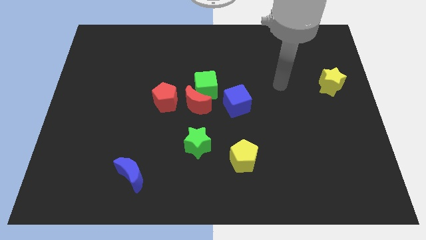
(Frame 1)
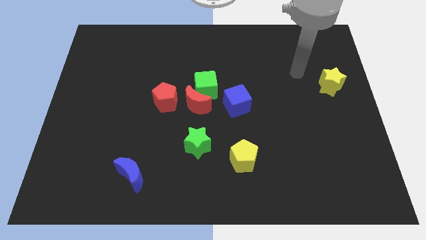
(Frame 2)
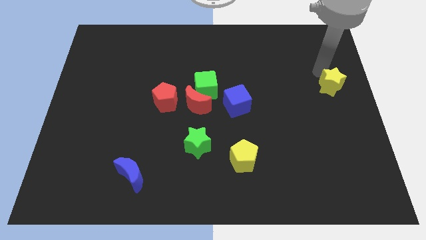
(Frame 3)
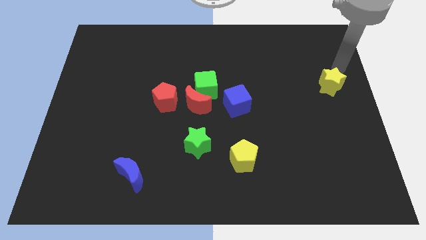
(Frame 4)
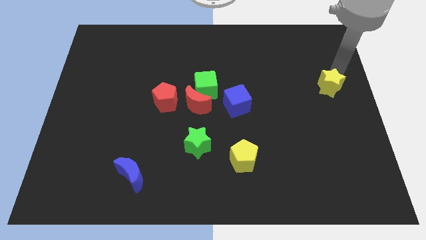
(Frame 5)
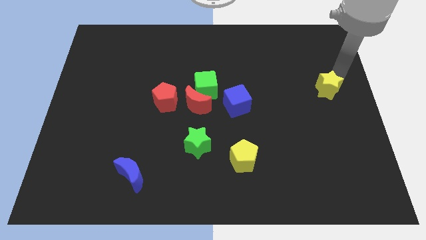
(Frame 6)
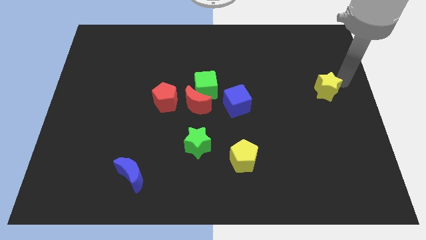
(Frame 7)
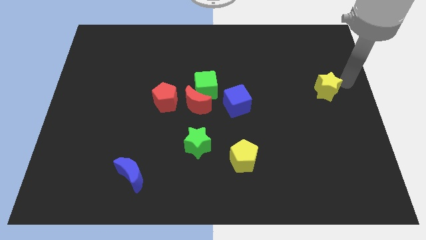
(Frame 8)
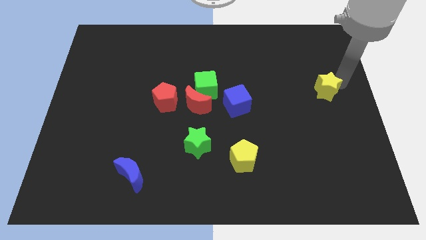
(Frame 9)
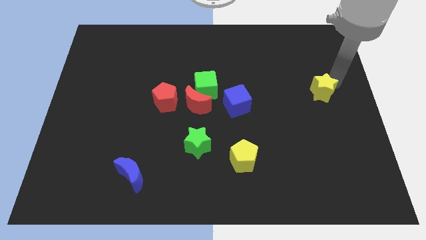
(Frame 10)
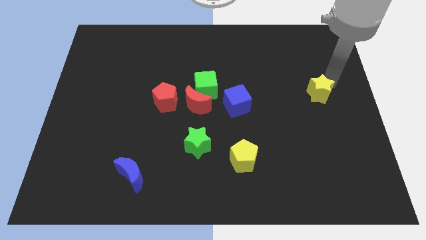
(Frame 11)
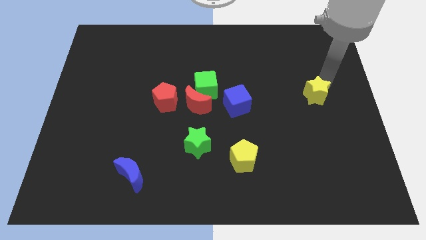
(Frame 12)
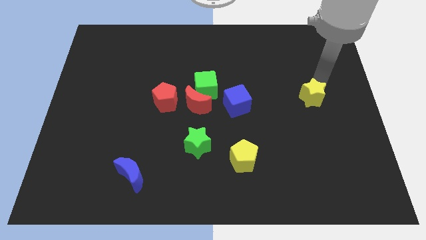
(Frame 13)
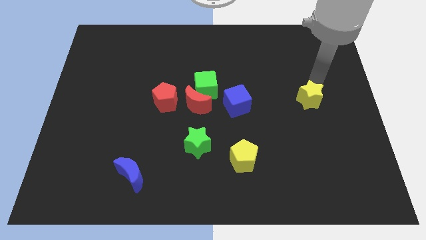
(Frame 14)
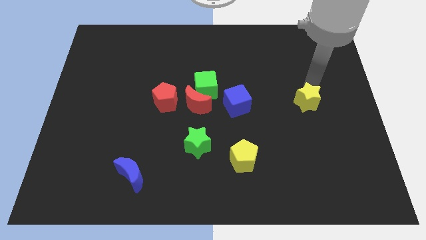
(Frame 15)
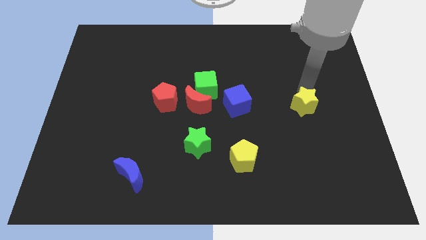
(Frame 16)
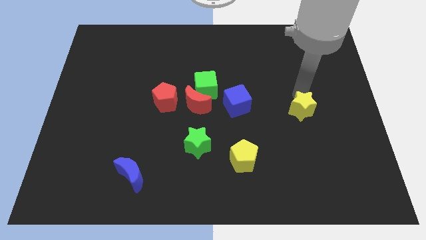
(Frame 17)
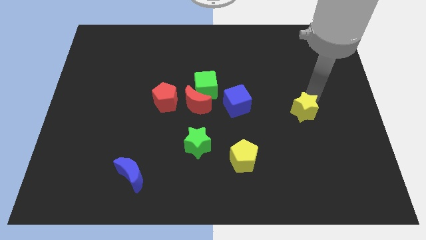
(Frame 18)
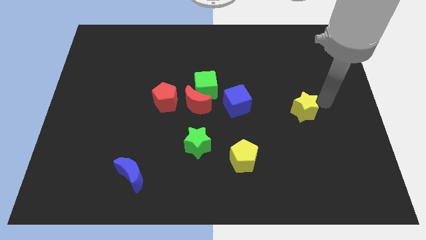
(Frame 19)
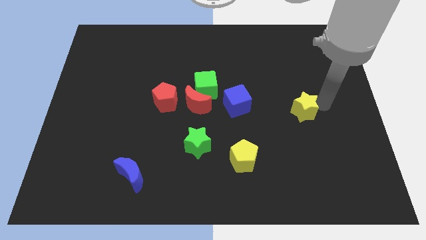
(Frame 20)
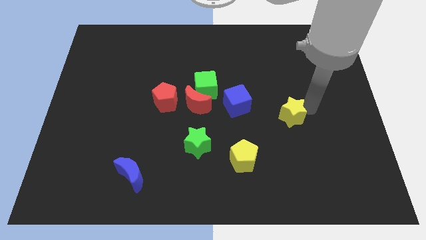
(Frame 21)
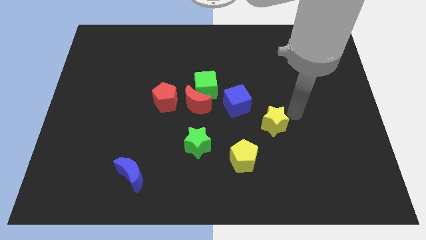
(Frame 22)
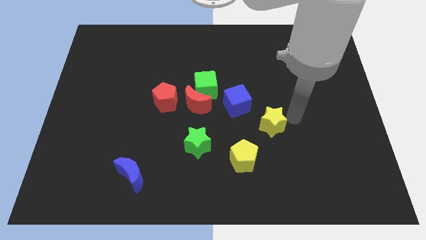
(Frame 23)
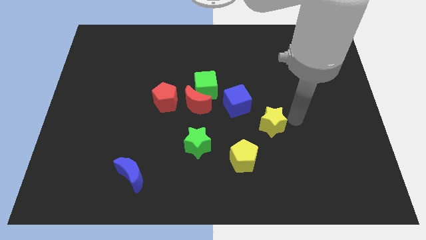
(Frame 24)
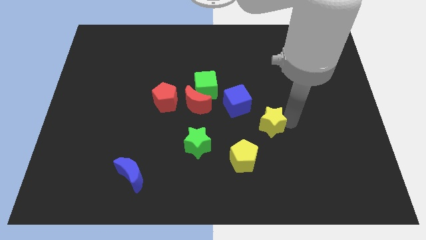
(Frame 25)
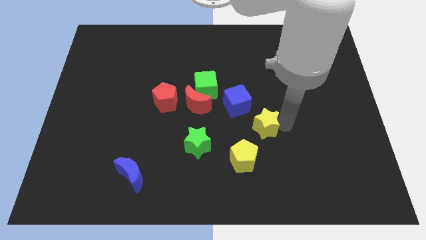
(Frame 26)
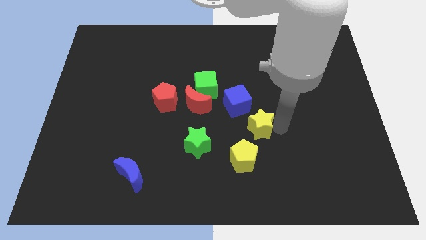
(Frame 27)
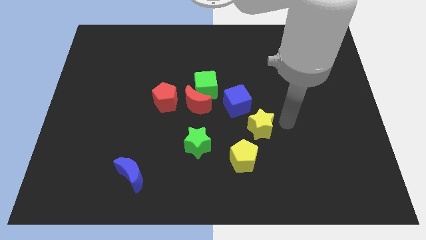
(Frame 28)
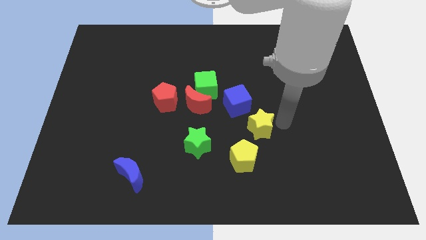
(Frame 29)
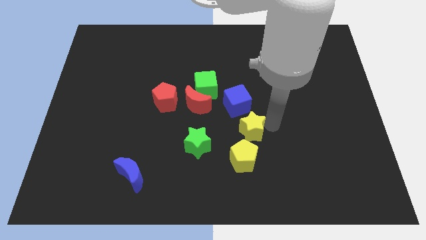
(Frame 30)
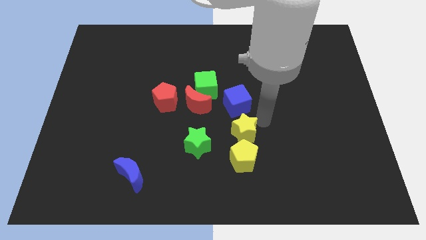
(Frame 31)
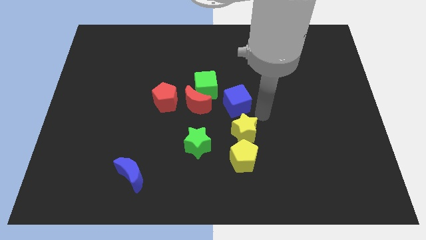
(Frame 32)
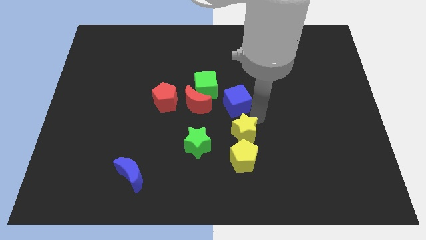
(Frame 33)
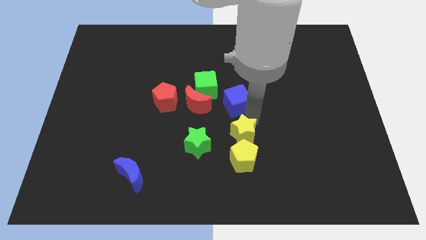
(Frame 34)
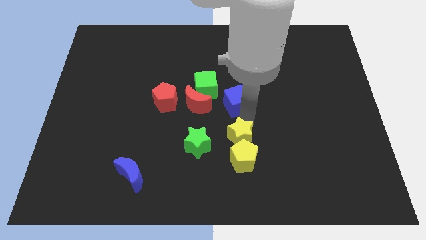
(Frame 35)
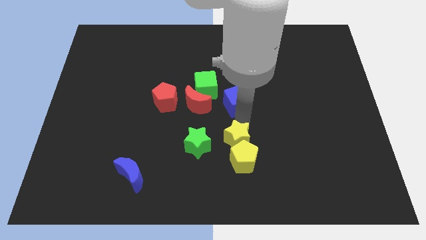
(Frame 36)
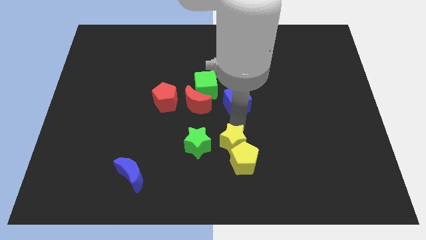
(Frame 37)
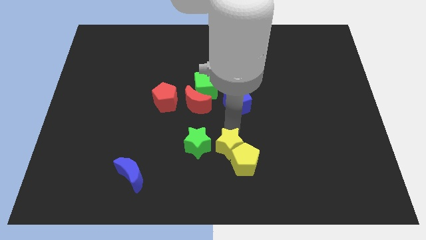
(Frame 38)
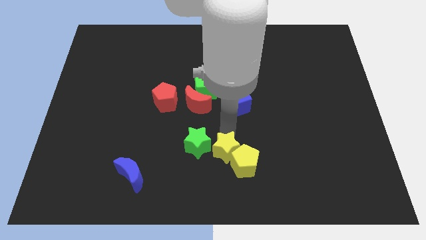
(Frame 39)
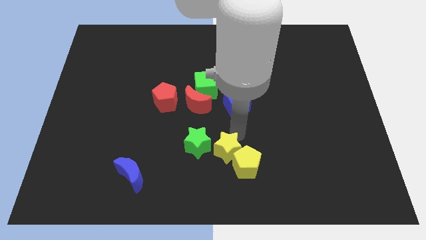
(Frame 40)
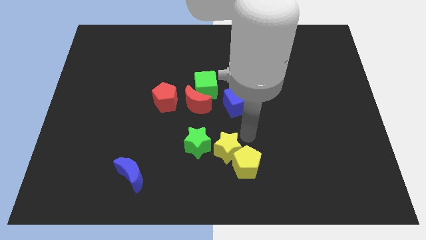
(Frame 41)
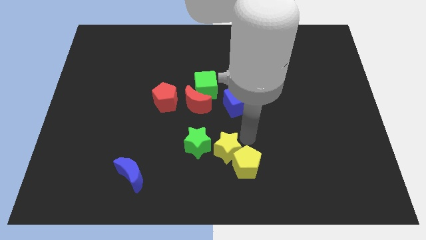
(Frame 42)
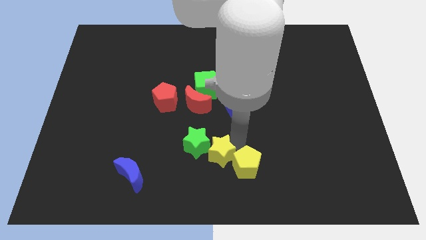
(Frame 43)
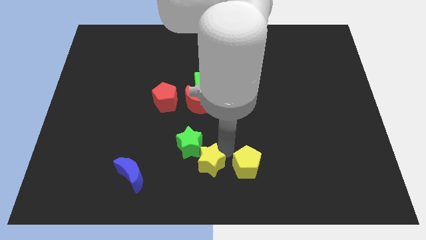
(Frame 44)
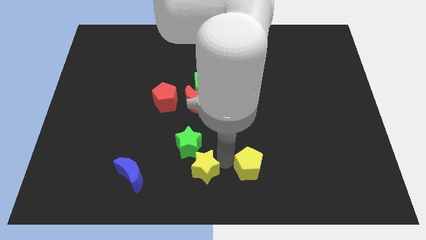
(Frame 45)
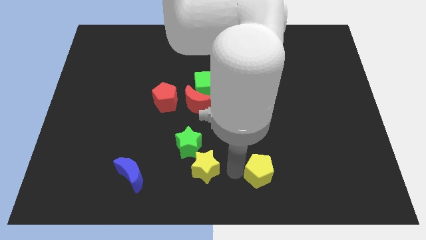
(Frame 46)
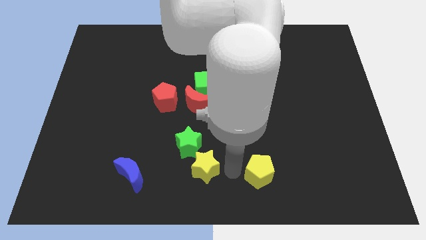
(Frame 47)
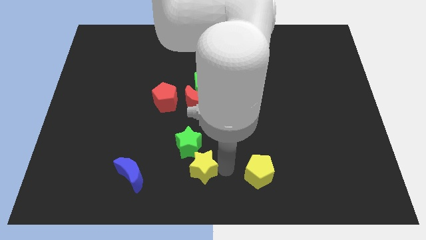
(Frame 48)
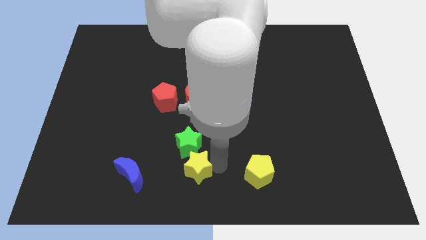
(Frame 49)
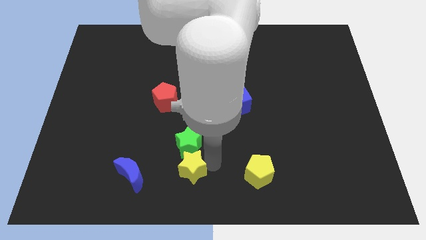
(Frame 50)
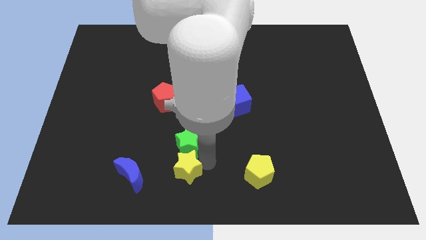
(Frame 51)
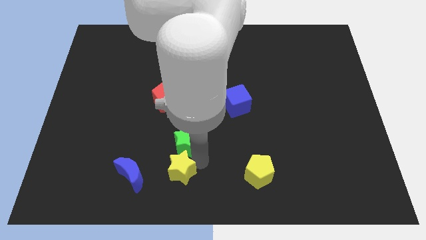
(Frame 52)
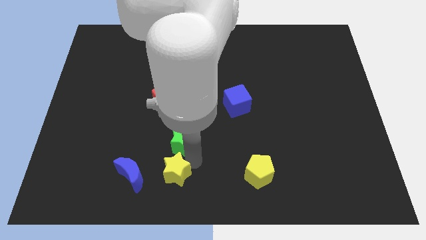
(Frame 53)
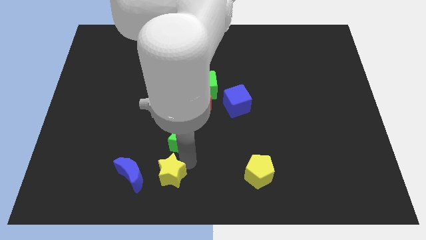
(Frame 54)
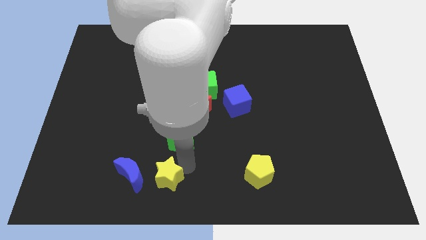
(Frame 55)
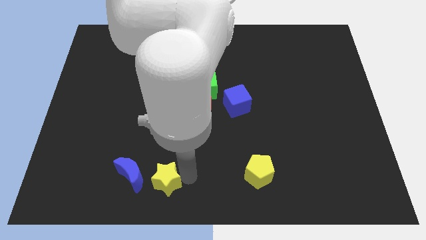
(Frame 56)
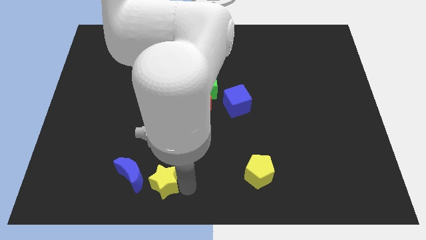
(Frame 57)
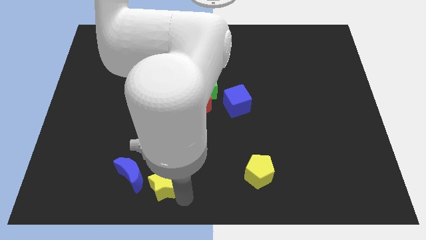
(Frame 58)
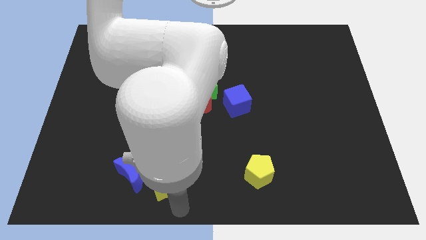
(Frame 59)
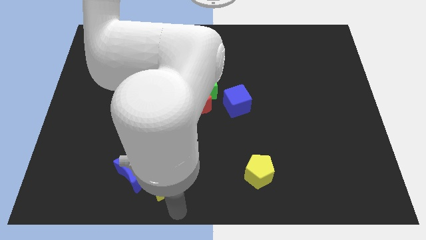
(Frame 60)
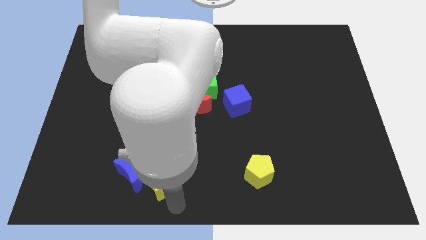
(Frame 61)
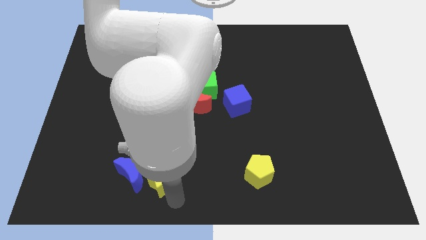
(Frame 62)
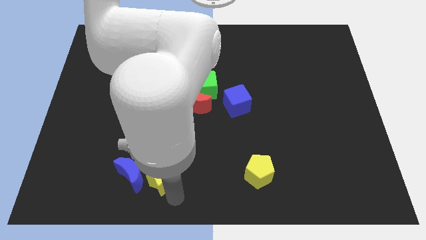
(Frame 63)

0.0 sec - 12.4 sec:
slide the yellow star towards the blue moon

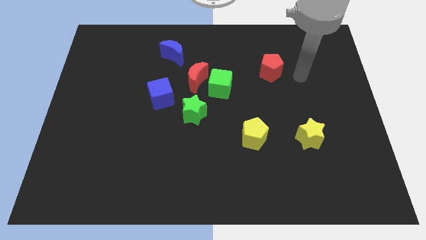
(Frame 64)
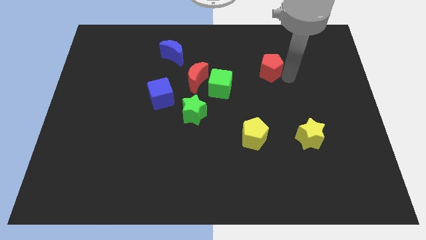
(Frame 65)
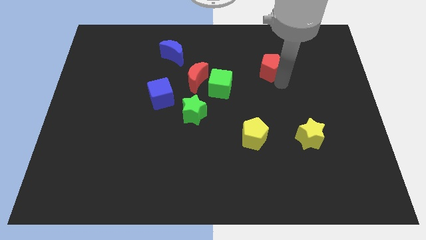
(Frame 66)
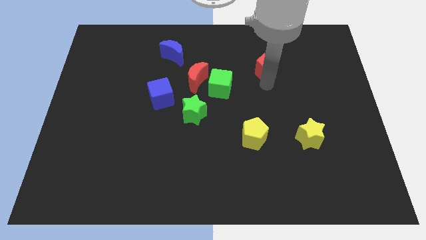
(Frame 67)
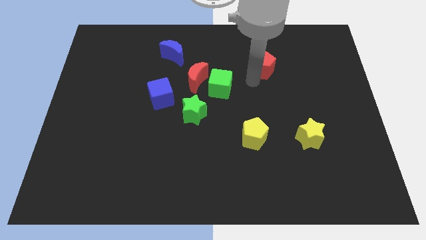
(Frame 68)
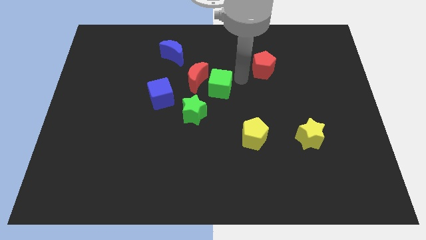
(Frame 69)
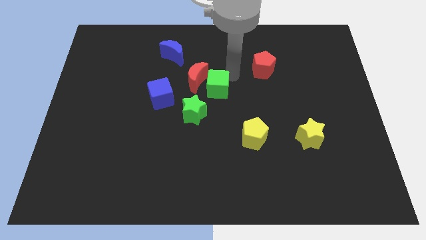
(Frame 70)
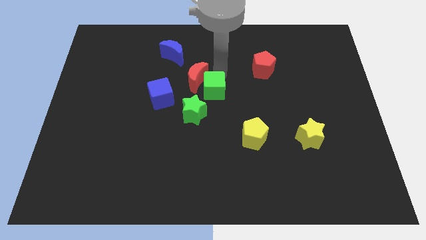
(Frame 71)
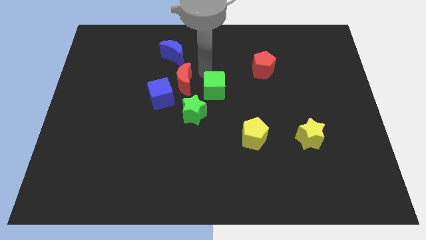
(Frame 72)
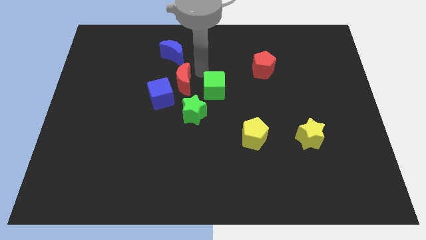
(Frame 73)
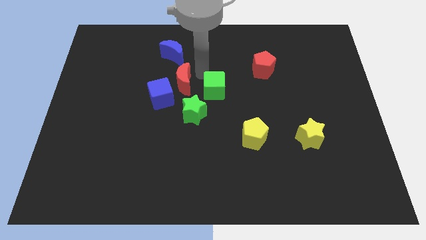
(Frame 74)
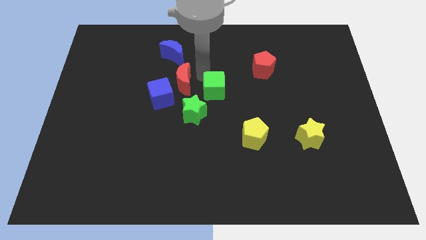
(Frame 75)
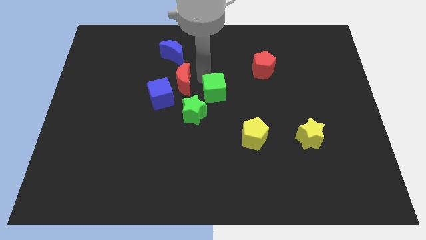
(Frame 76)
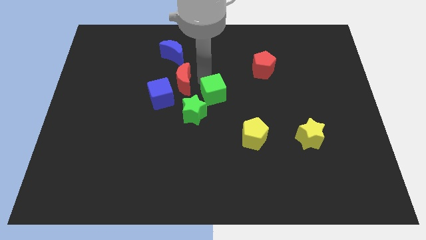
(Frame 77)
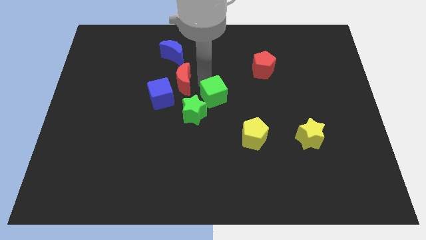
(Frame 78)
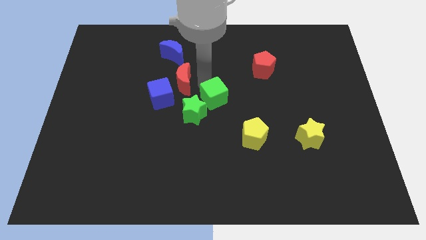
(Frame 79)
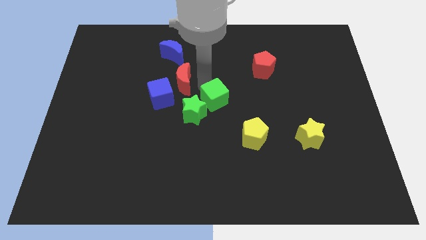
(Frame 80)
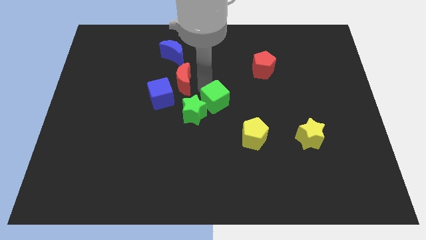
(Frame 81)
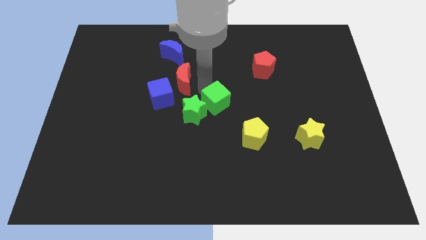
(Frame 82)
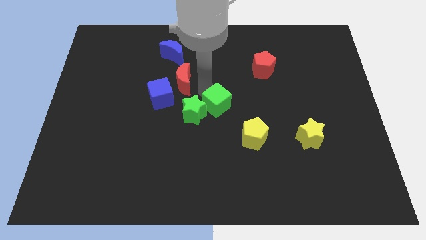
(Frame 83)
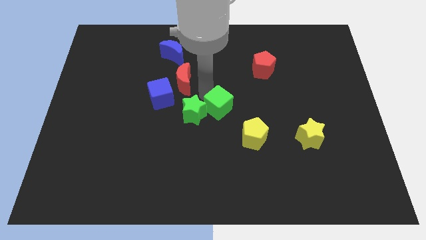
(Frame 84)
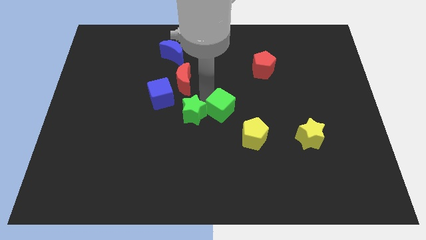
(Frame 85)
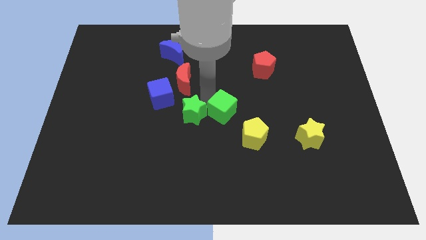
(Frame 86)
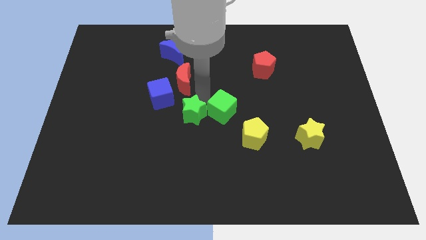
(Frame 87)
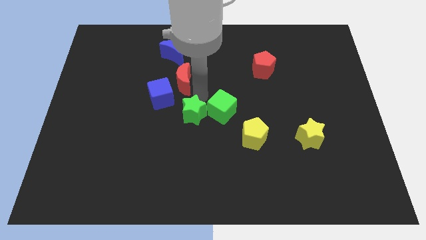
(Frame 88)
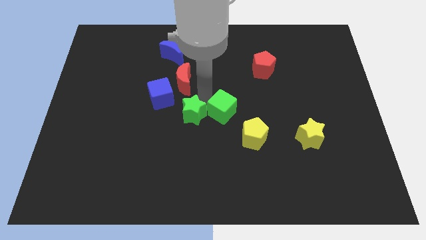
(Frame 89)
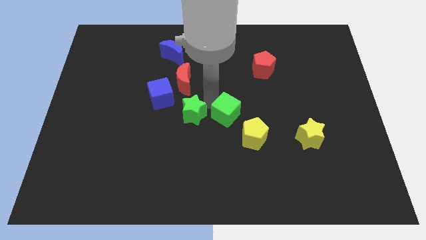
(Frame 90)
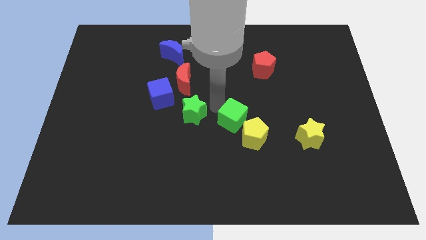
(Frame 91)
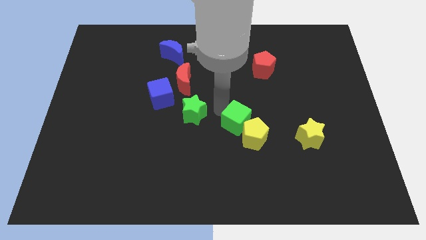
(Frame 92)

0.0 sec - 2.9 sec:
push the green cube to the yellow pentagon
